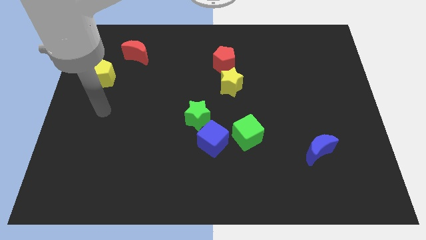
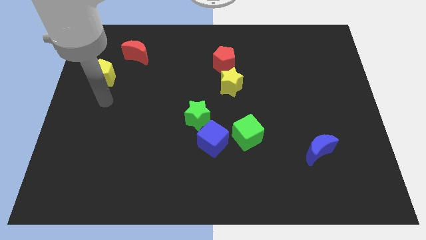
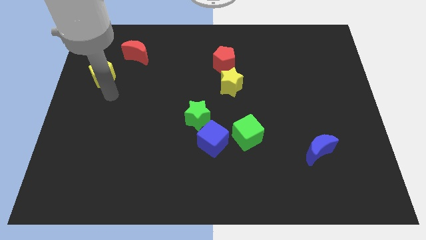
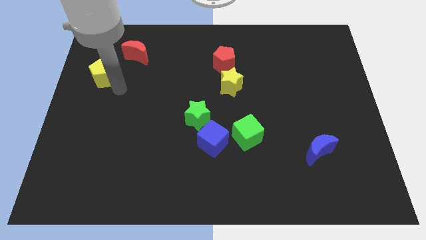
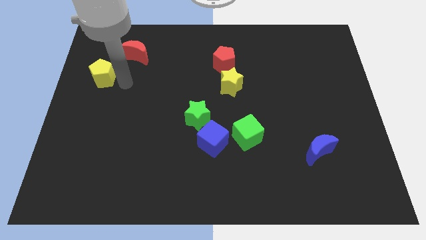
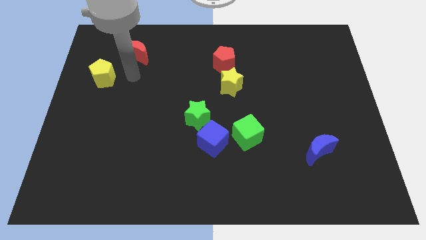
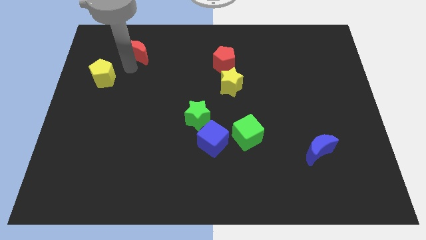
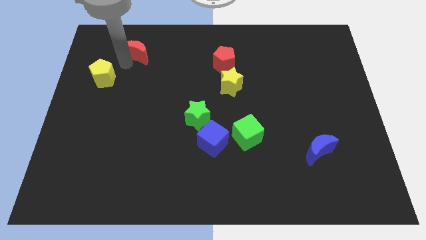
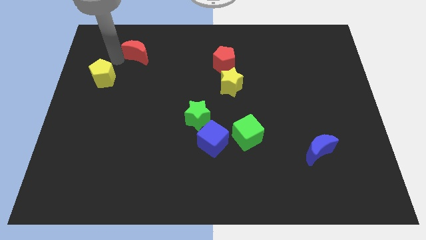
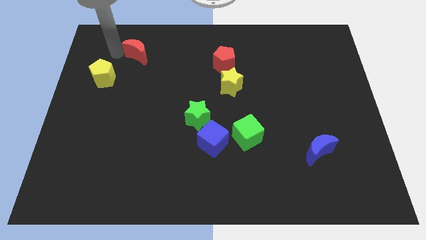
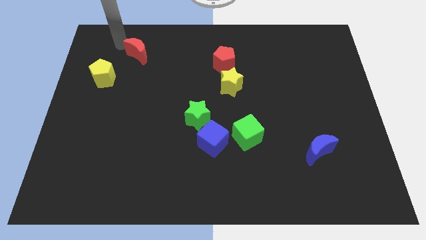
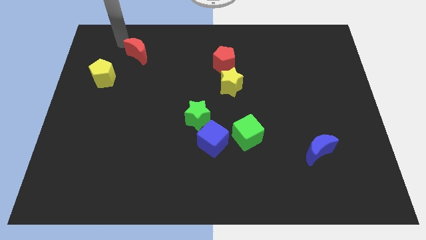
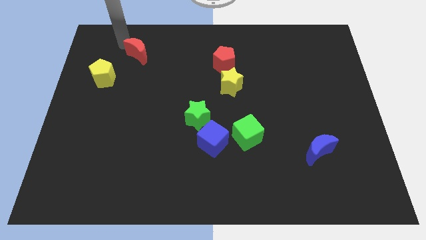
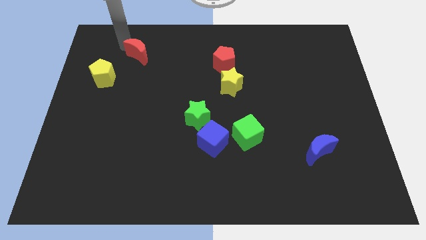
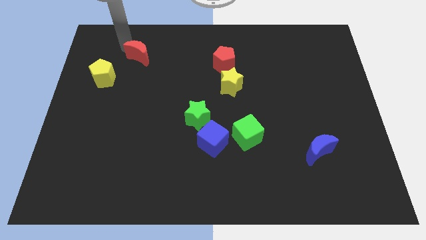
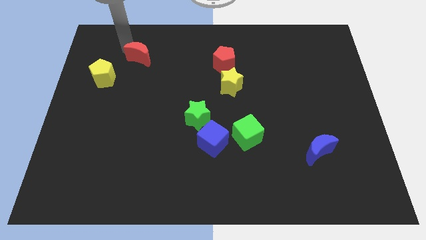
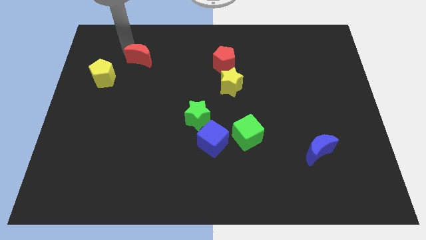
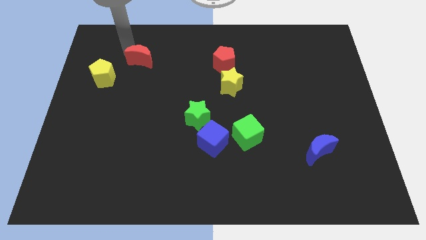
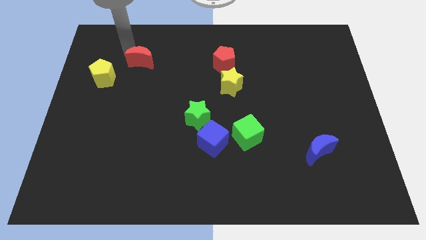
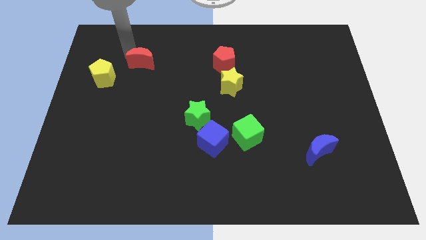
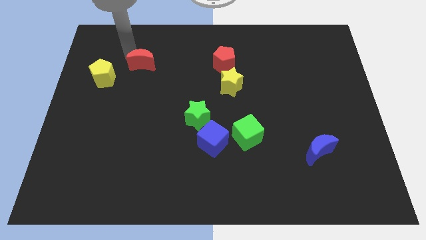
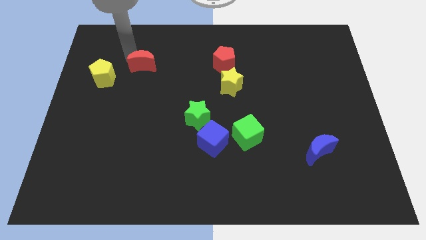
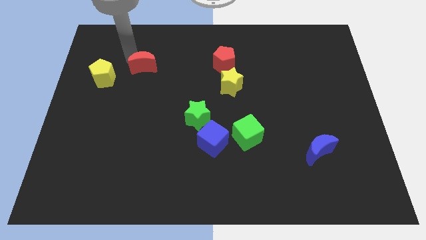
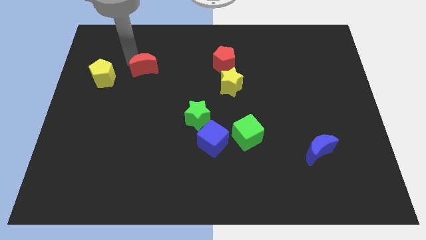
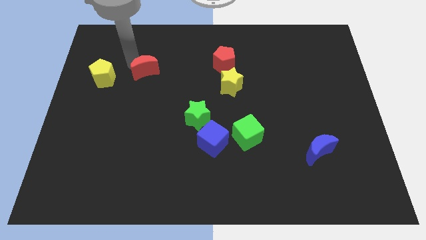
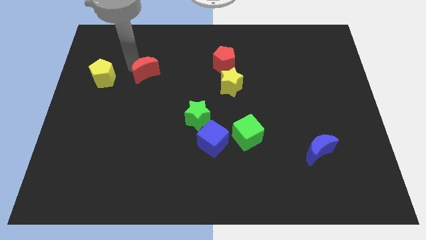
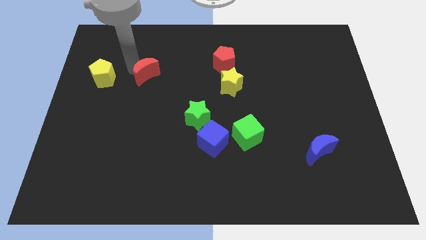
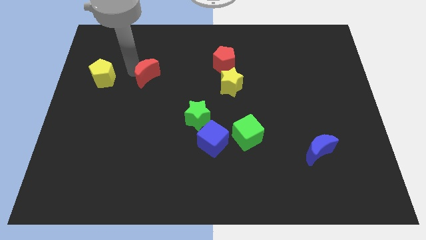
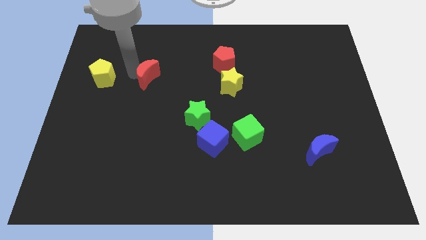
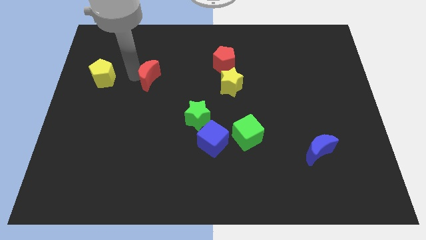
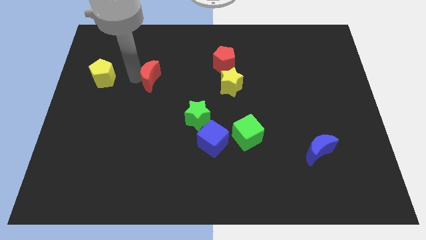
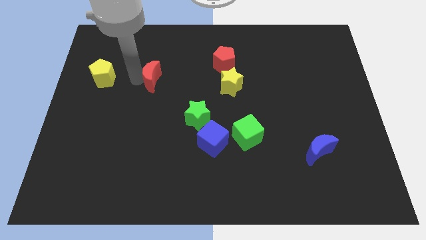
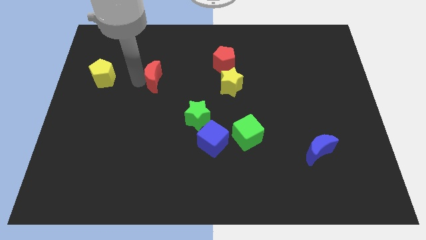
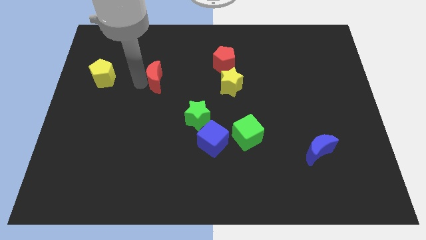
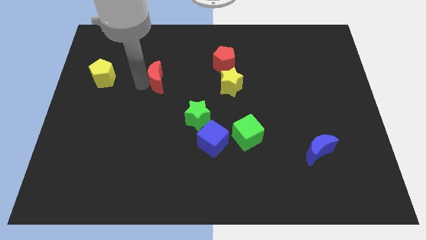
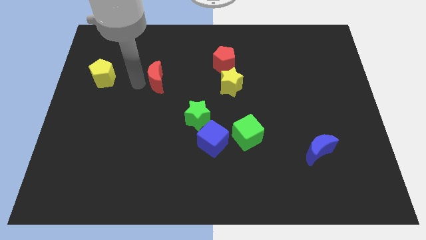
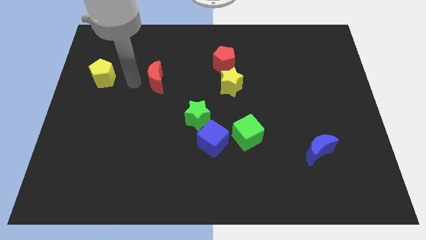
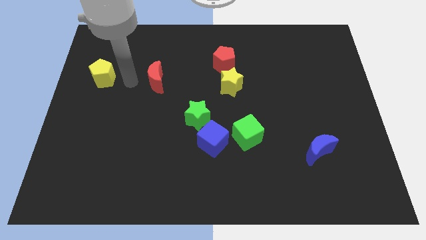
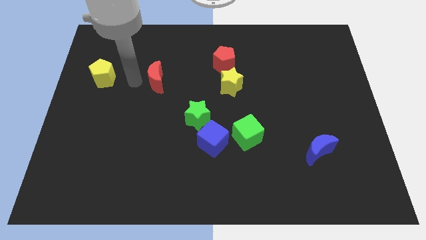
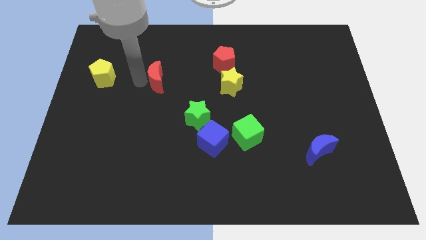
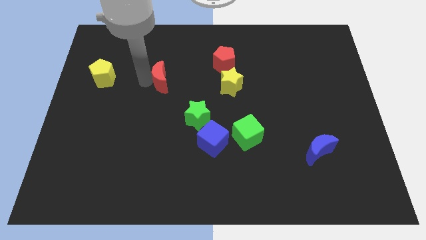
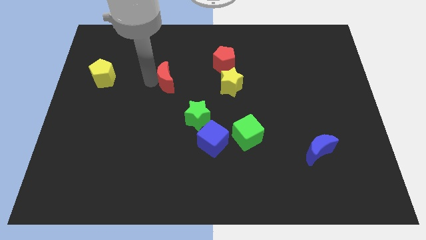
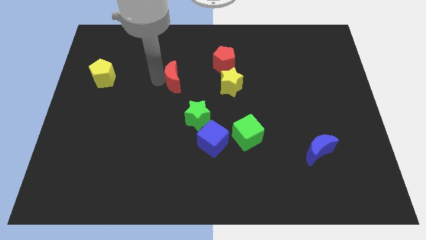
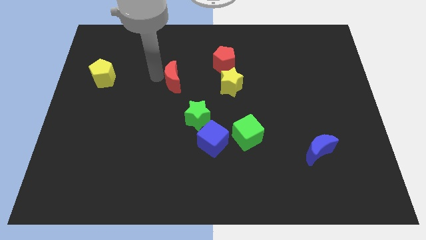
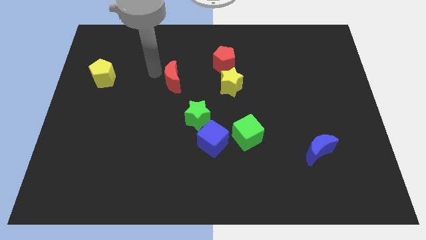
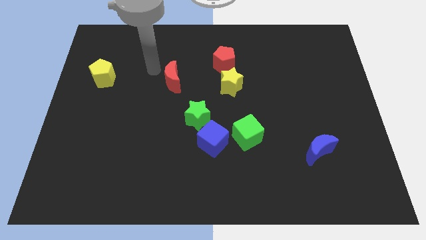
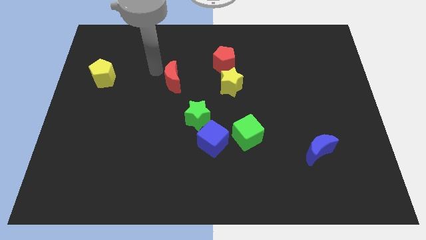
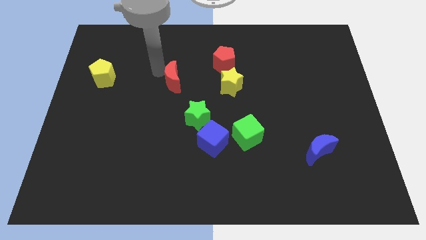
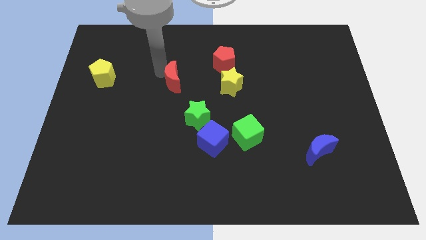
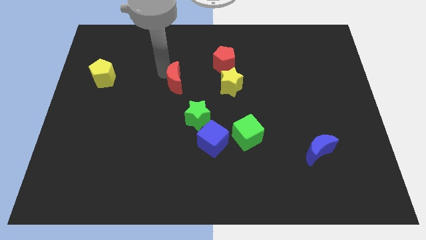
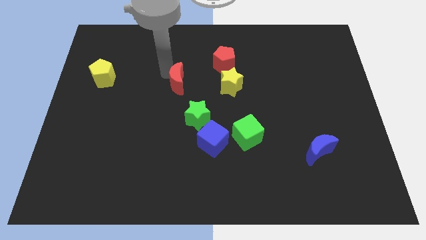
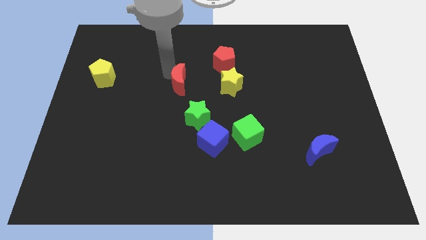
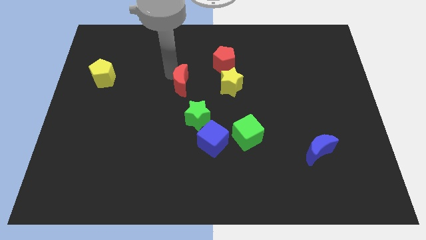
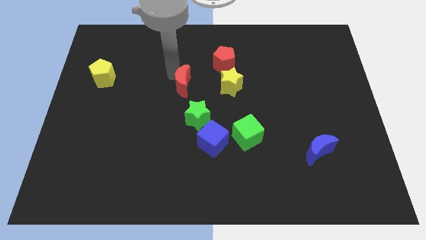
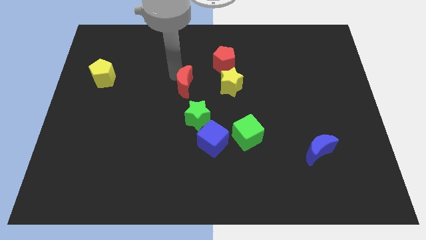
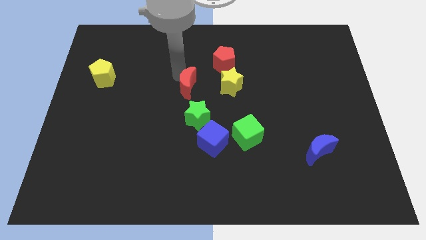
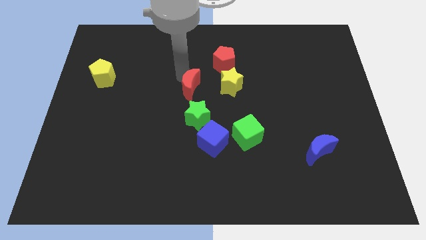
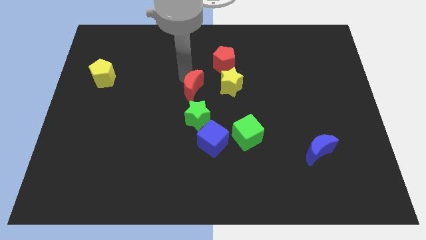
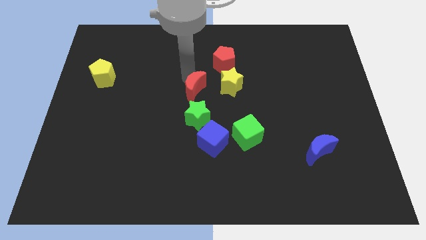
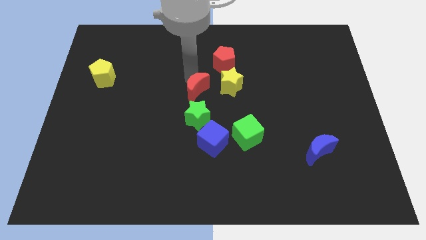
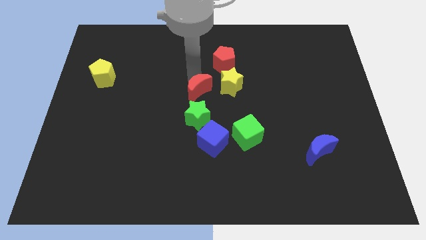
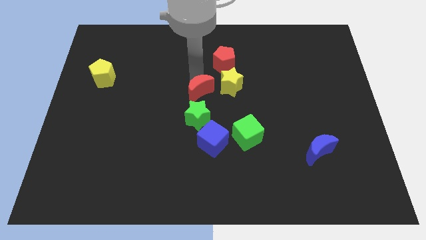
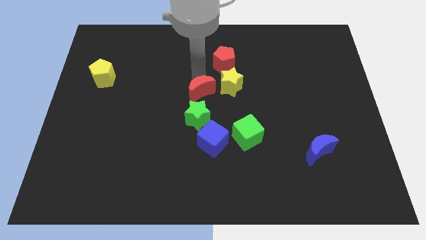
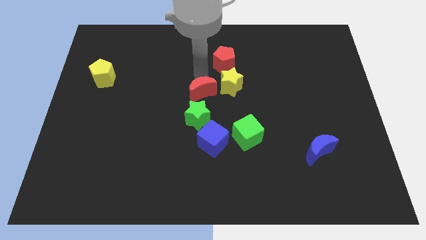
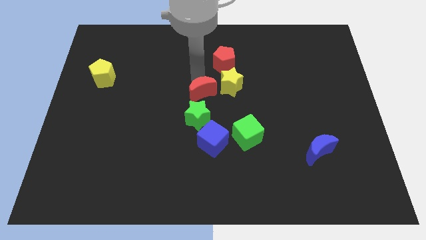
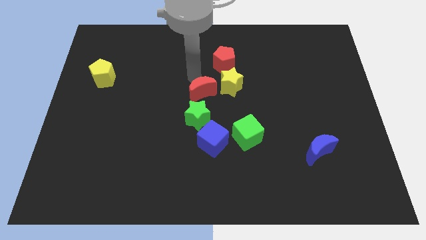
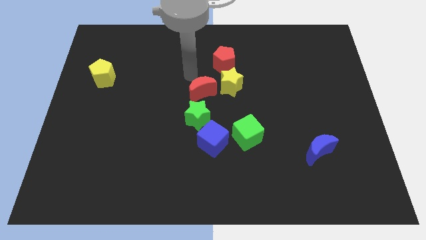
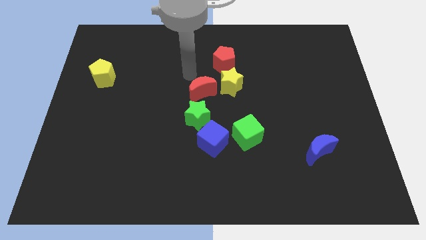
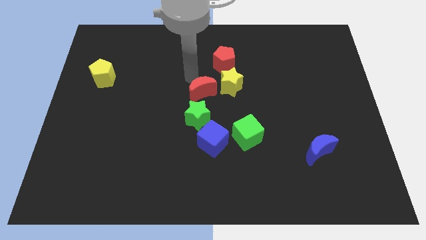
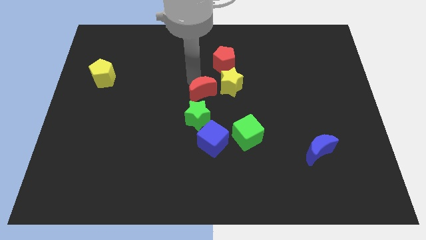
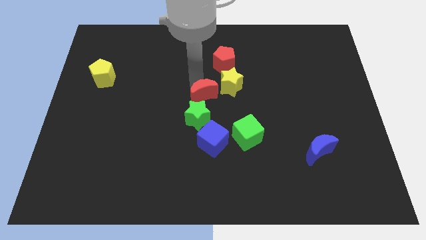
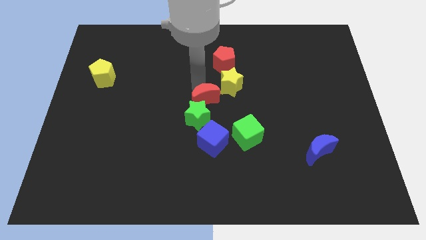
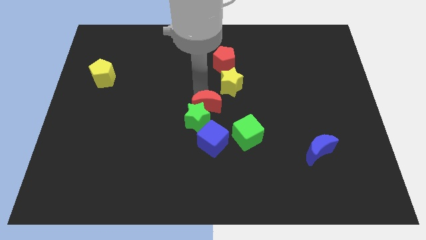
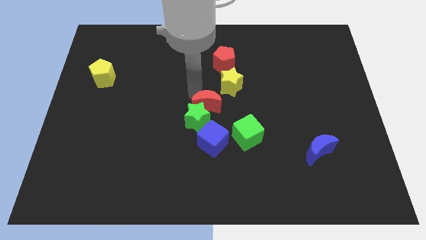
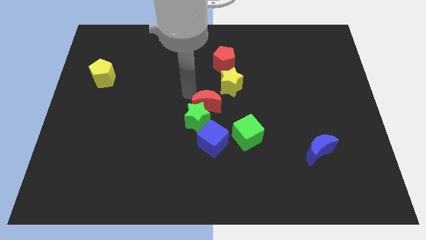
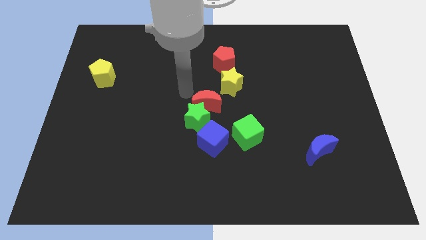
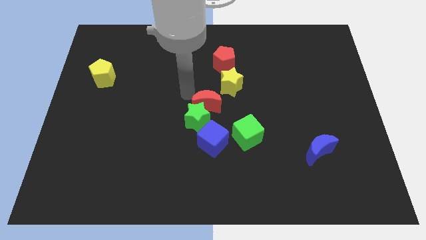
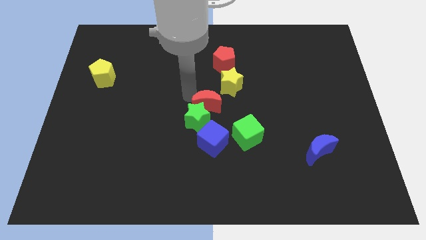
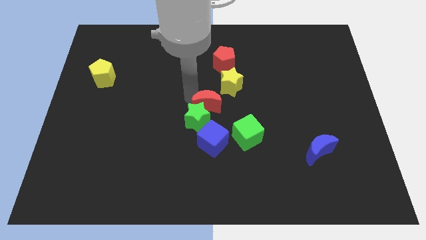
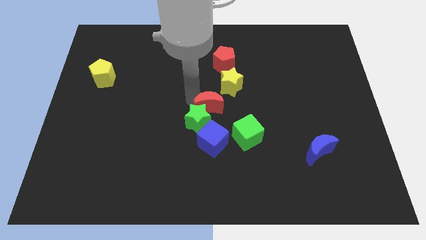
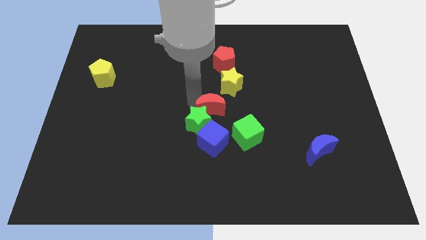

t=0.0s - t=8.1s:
put the red moon below the yellow star
